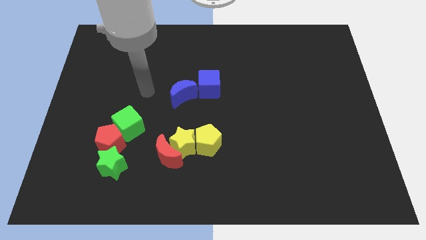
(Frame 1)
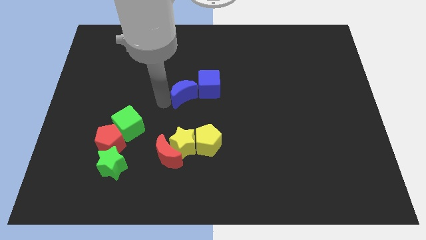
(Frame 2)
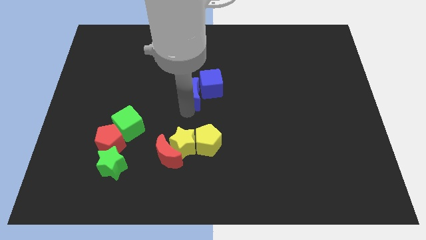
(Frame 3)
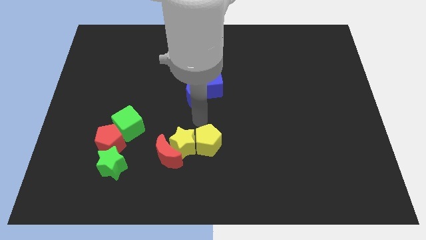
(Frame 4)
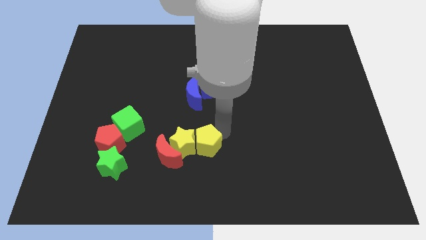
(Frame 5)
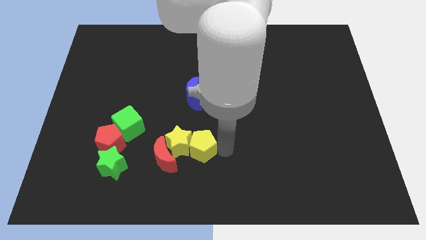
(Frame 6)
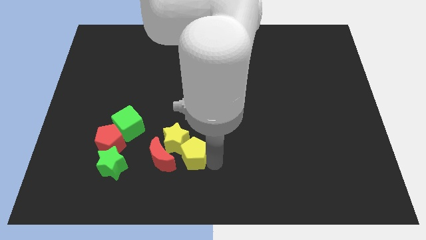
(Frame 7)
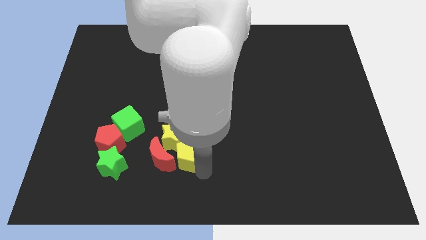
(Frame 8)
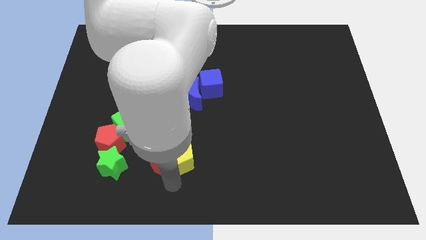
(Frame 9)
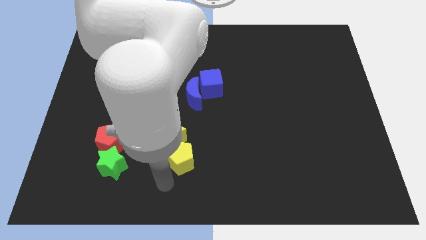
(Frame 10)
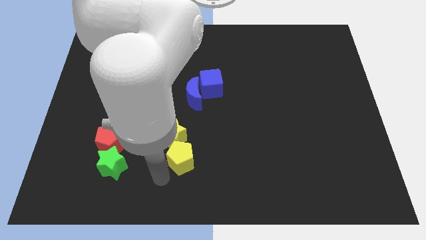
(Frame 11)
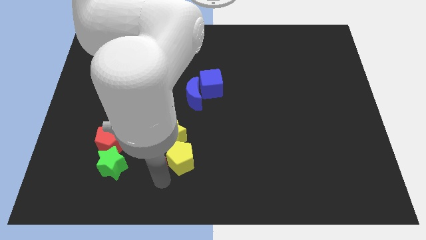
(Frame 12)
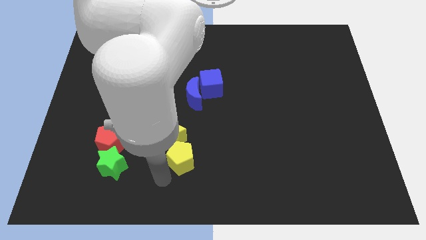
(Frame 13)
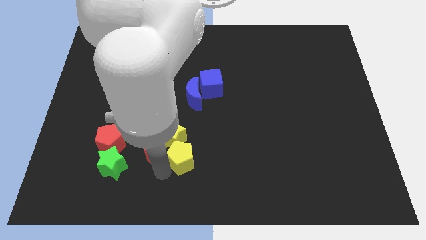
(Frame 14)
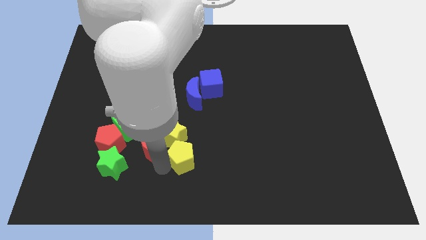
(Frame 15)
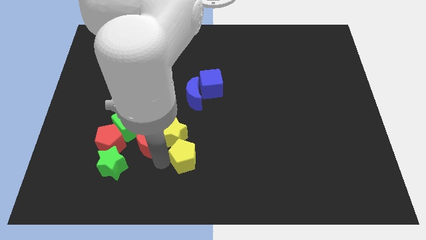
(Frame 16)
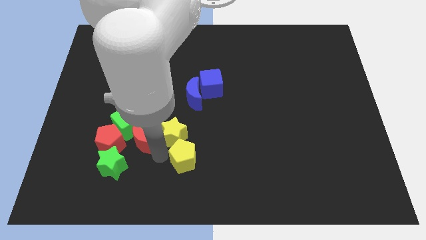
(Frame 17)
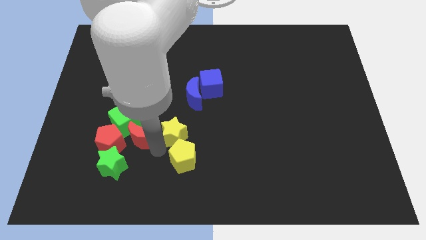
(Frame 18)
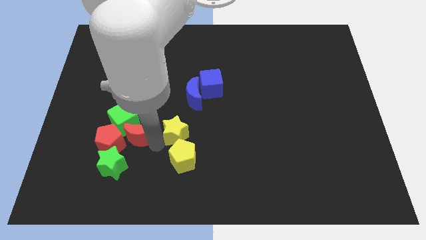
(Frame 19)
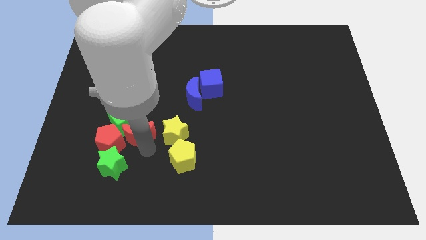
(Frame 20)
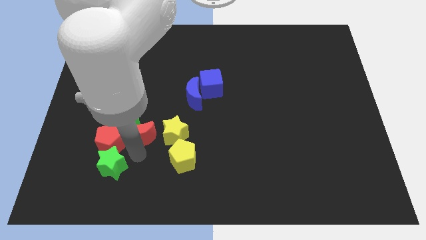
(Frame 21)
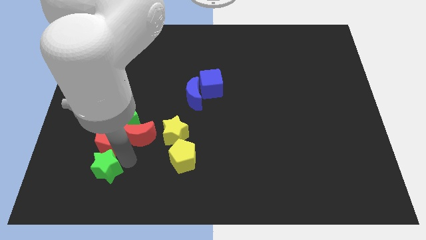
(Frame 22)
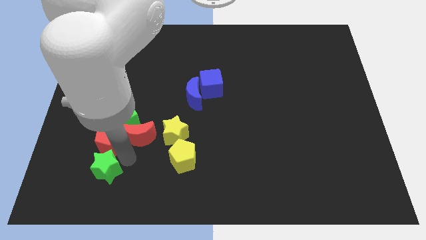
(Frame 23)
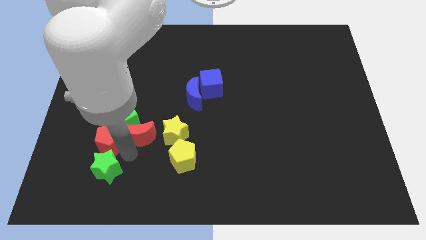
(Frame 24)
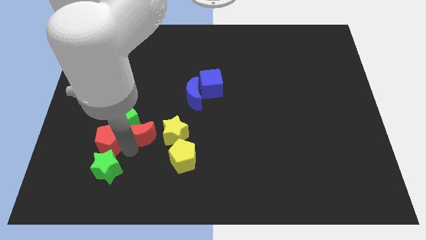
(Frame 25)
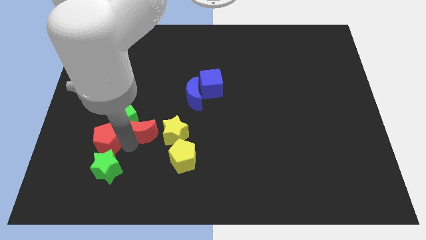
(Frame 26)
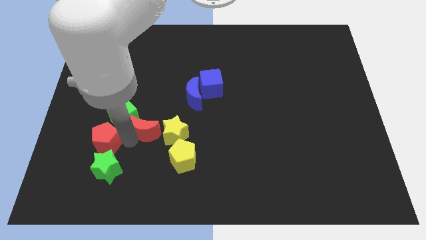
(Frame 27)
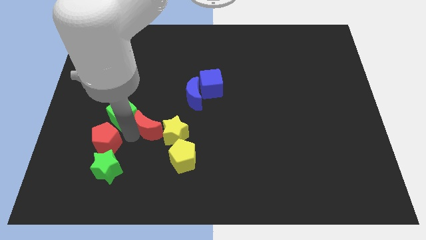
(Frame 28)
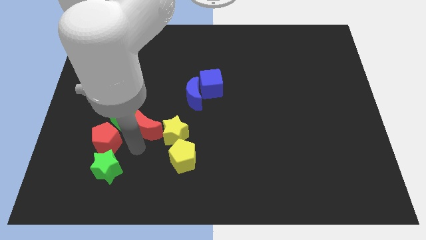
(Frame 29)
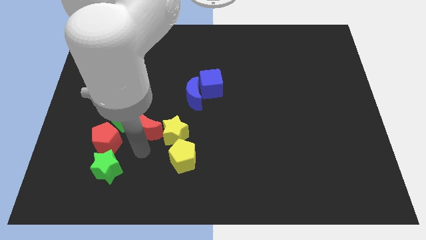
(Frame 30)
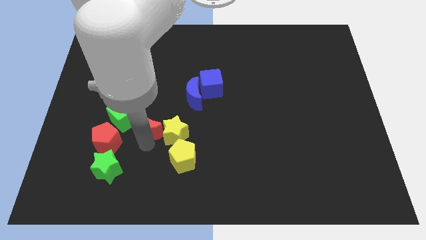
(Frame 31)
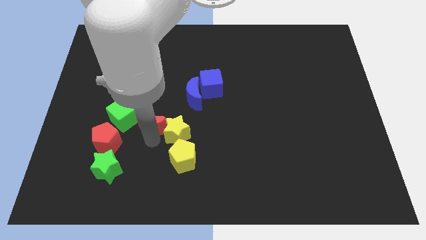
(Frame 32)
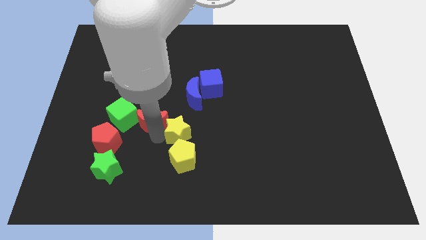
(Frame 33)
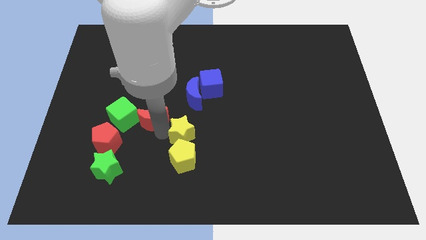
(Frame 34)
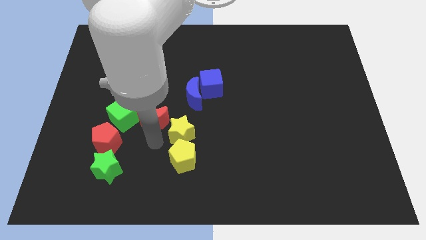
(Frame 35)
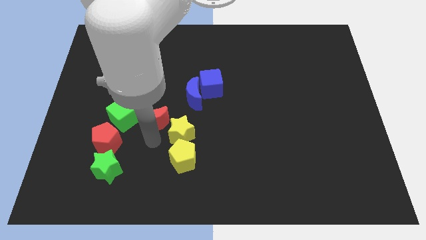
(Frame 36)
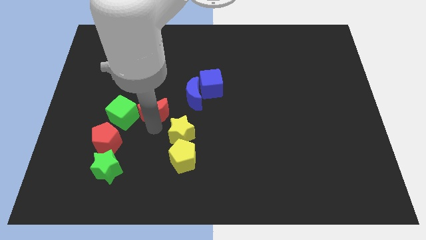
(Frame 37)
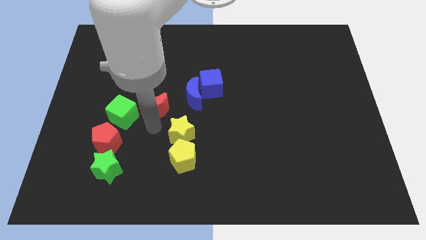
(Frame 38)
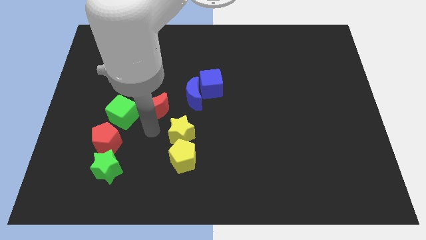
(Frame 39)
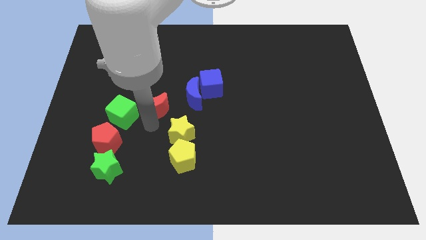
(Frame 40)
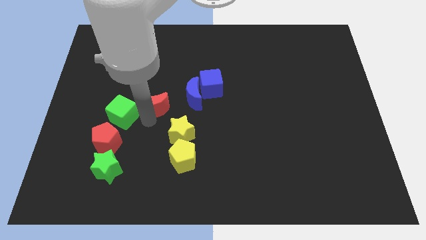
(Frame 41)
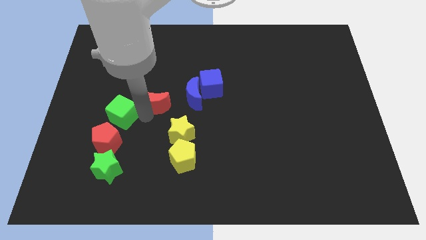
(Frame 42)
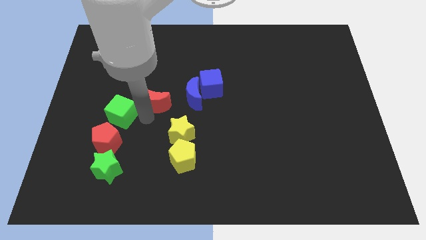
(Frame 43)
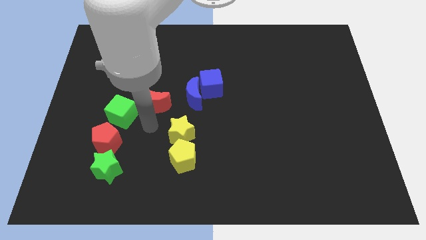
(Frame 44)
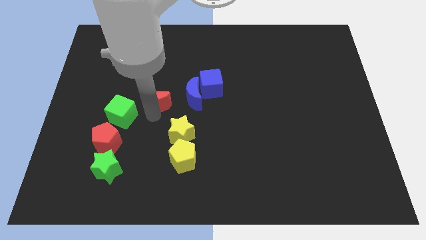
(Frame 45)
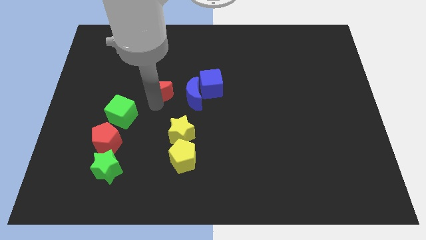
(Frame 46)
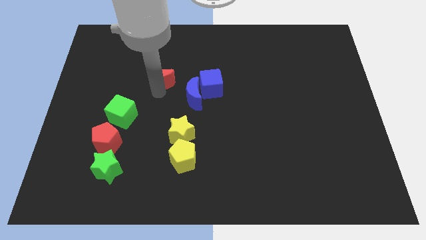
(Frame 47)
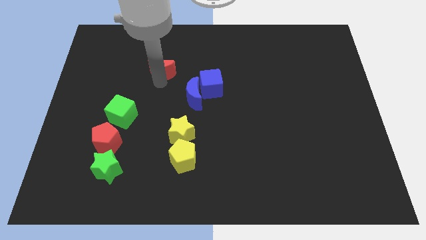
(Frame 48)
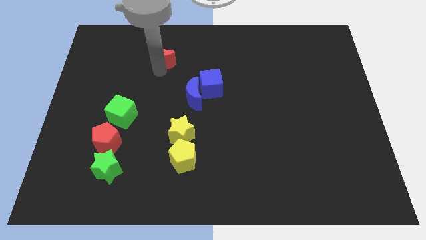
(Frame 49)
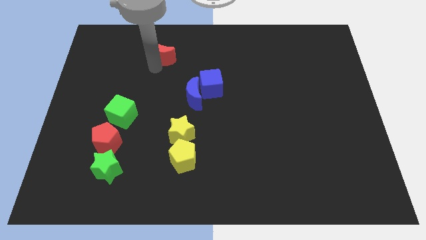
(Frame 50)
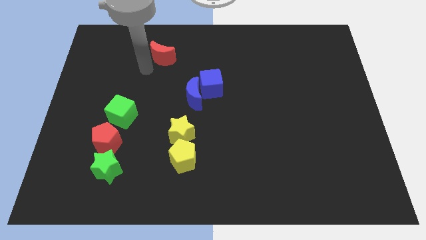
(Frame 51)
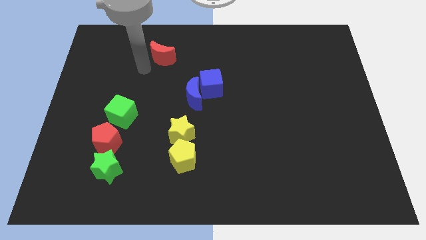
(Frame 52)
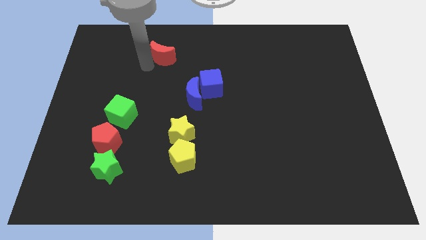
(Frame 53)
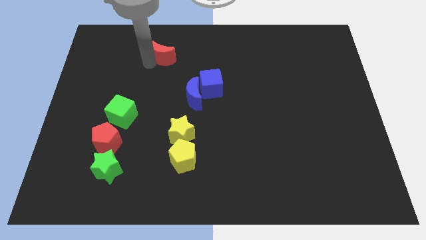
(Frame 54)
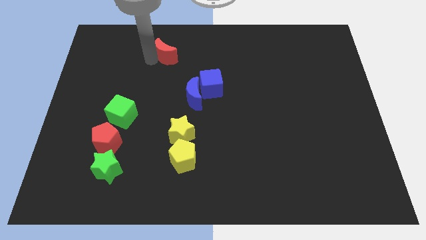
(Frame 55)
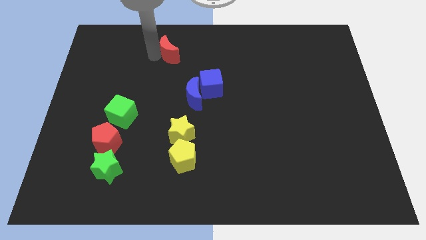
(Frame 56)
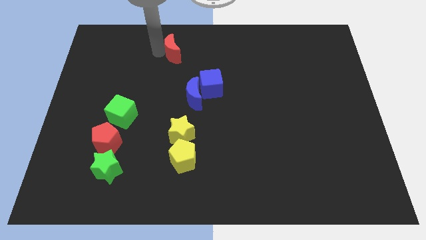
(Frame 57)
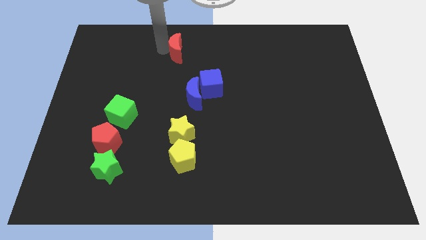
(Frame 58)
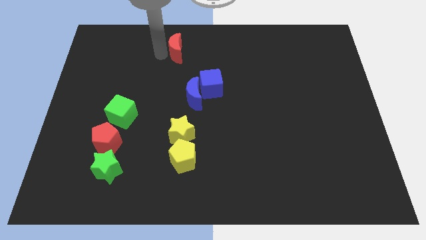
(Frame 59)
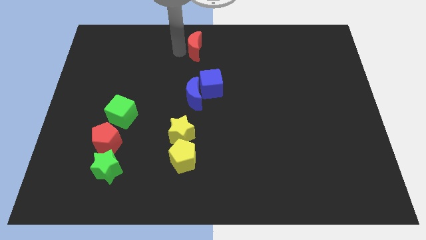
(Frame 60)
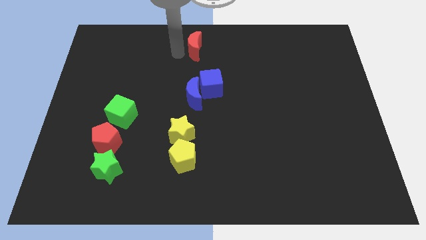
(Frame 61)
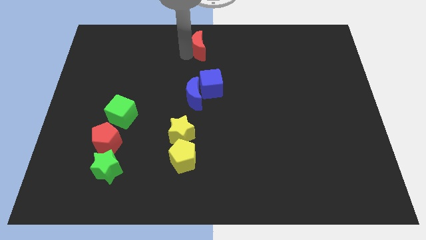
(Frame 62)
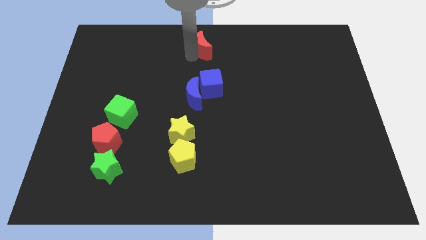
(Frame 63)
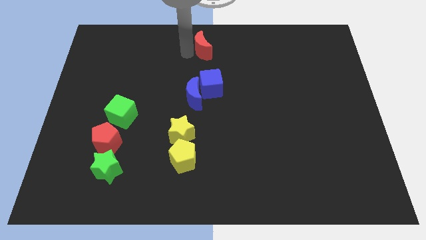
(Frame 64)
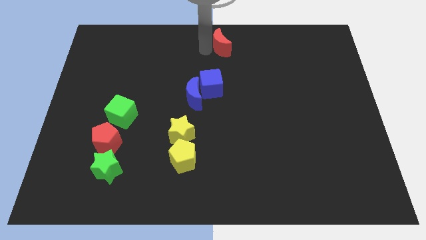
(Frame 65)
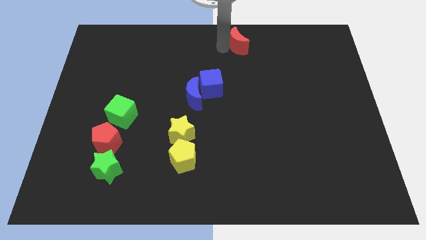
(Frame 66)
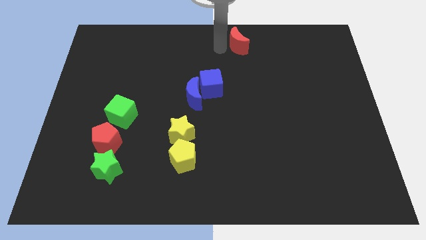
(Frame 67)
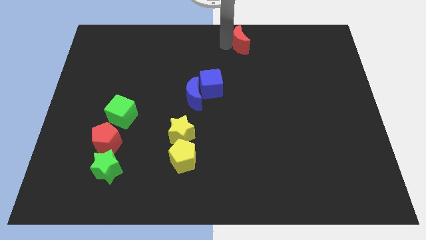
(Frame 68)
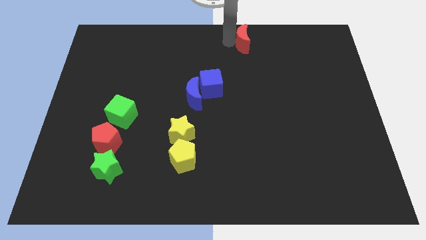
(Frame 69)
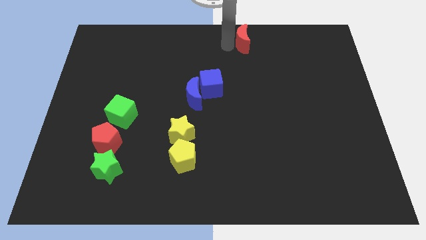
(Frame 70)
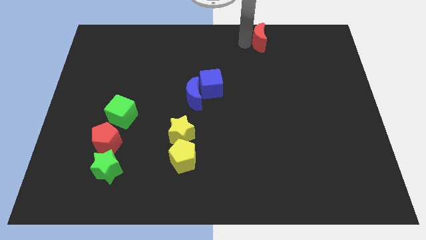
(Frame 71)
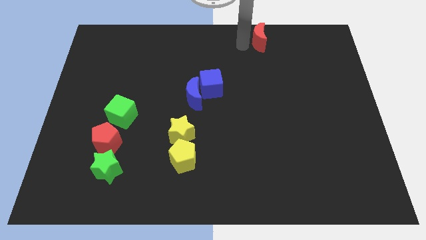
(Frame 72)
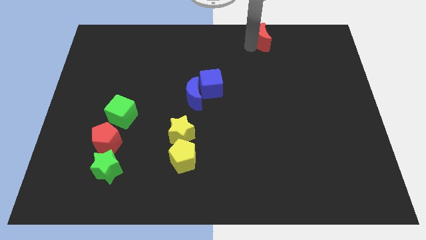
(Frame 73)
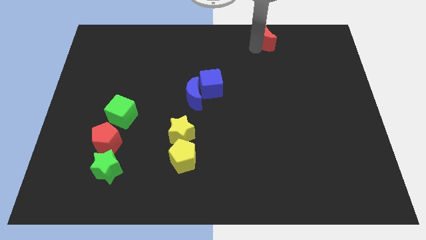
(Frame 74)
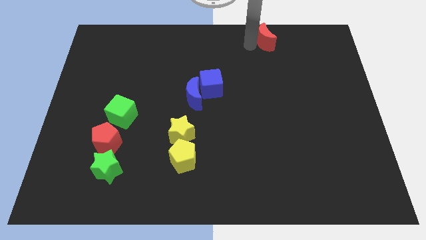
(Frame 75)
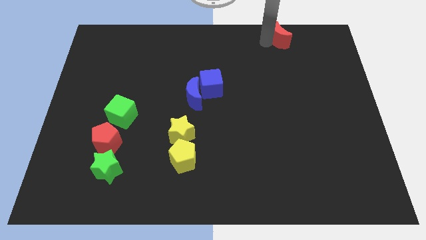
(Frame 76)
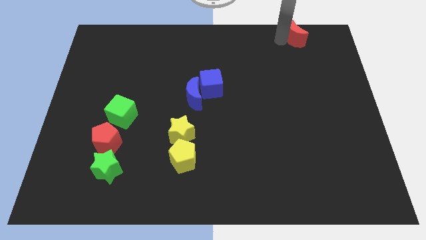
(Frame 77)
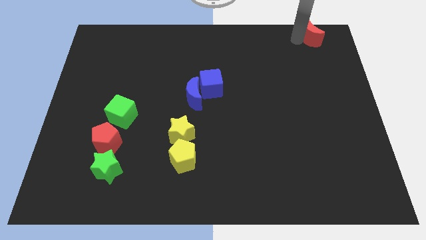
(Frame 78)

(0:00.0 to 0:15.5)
push the red moon to the upper right corner
